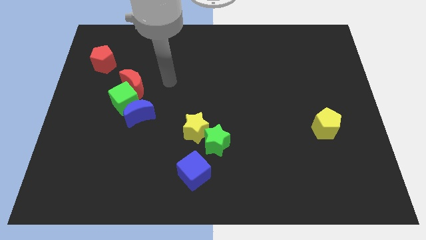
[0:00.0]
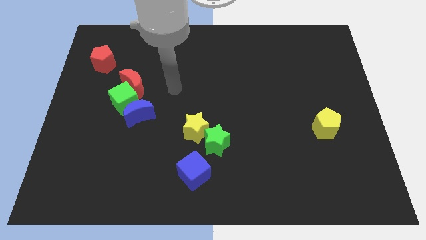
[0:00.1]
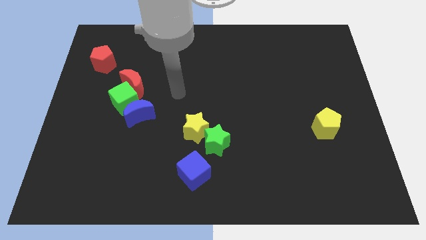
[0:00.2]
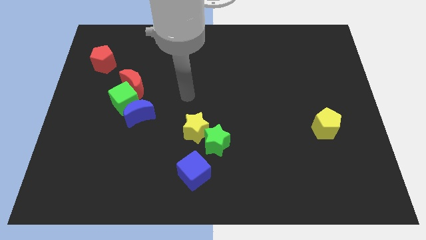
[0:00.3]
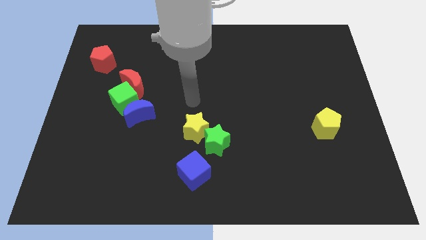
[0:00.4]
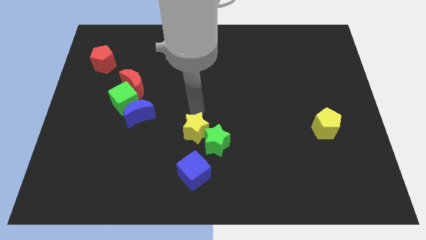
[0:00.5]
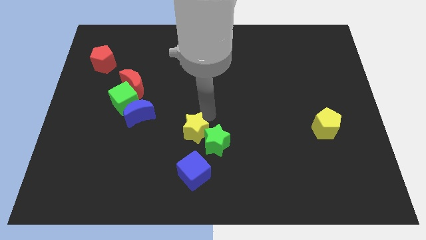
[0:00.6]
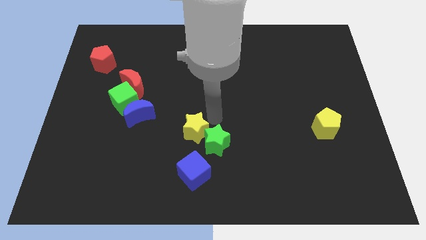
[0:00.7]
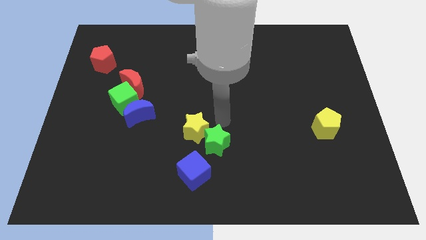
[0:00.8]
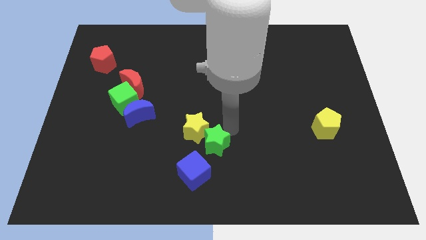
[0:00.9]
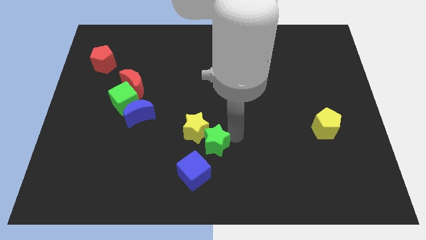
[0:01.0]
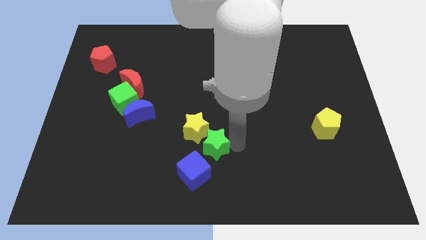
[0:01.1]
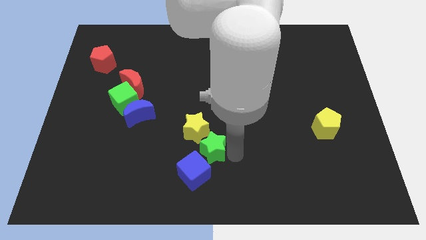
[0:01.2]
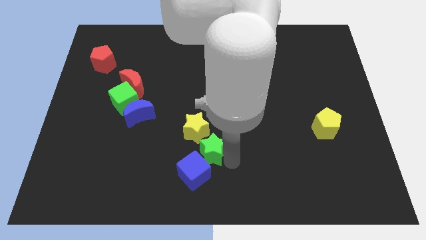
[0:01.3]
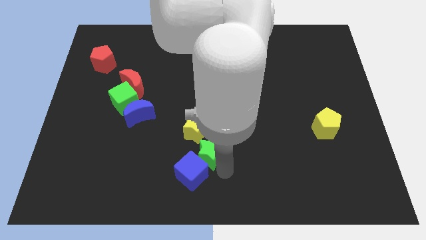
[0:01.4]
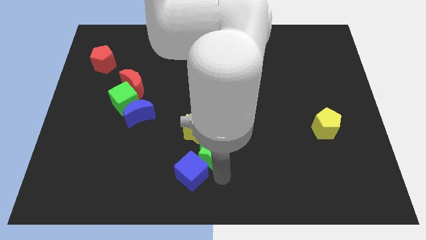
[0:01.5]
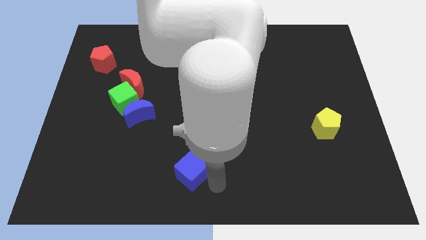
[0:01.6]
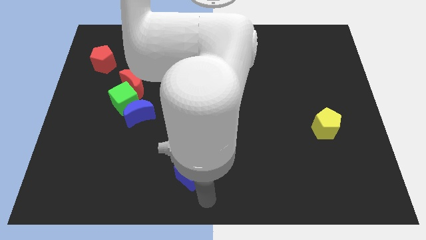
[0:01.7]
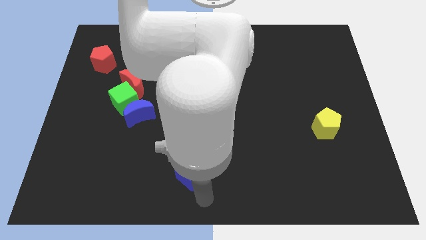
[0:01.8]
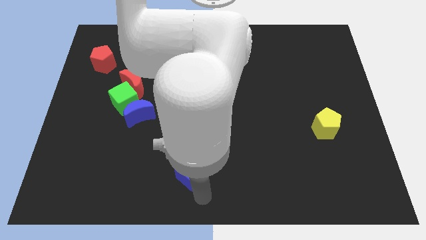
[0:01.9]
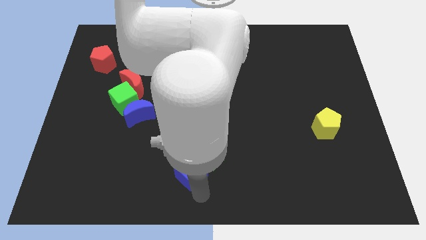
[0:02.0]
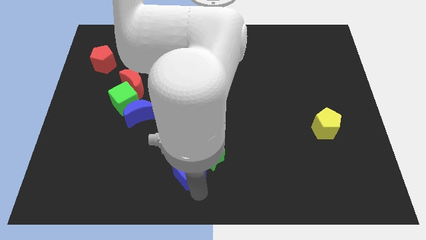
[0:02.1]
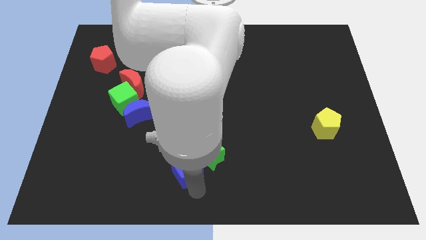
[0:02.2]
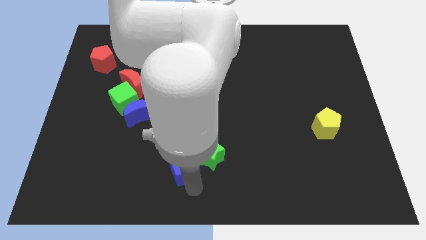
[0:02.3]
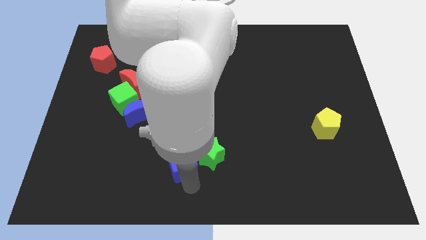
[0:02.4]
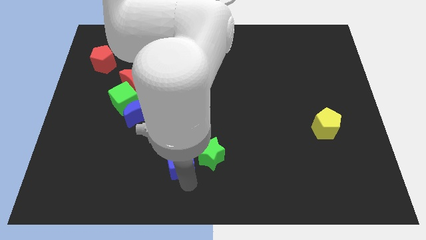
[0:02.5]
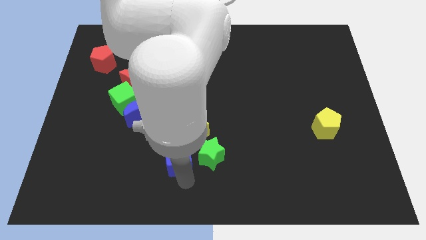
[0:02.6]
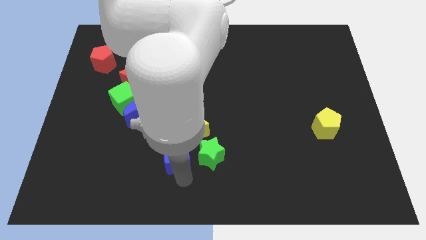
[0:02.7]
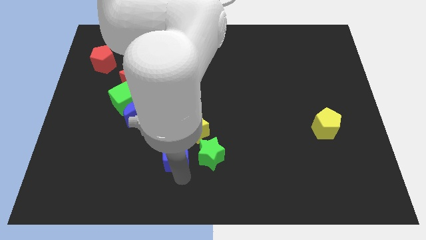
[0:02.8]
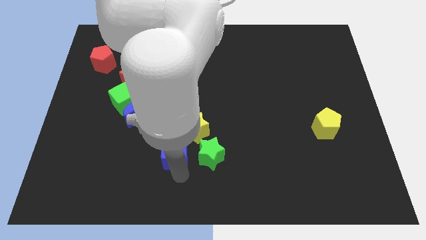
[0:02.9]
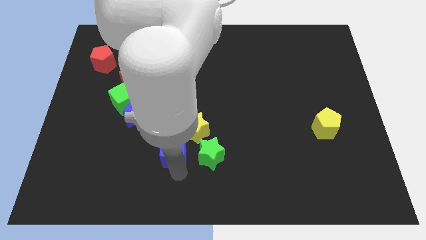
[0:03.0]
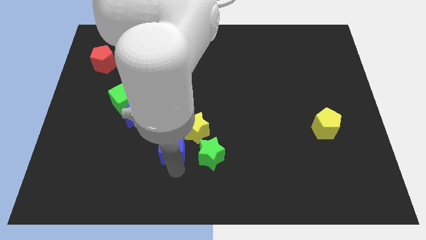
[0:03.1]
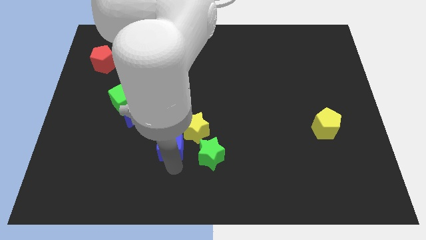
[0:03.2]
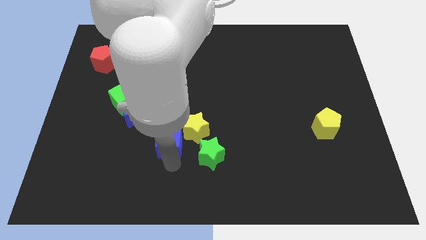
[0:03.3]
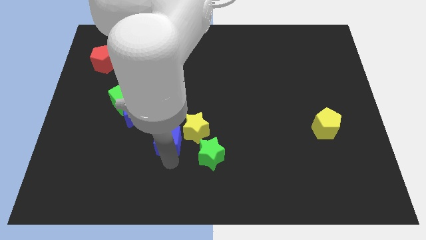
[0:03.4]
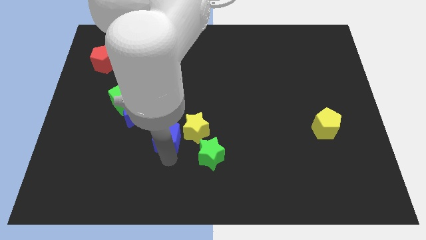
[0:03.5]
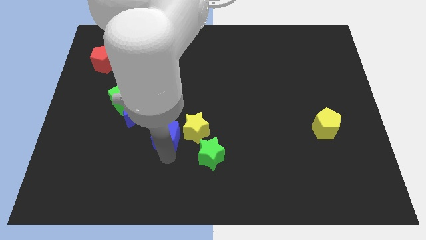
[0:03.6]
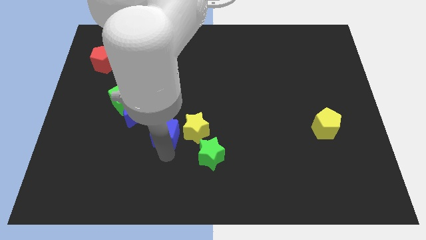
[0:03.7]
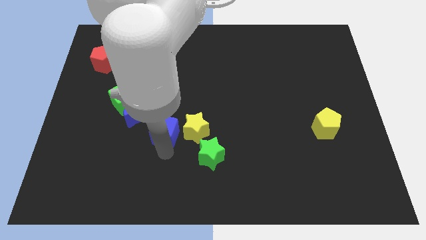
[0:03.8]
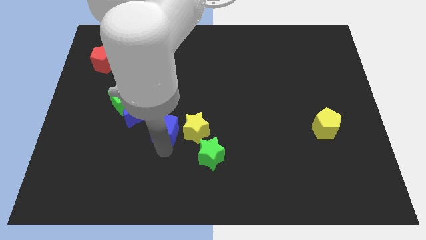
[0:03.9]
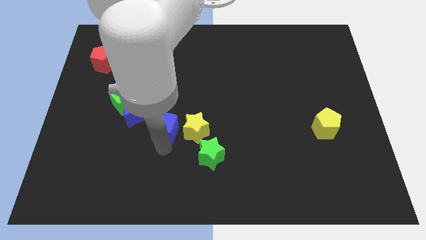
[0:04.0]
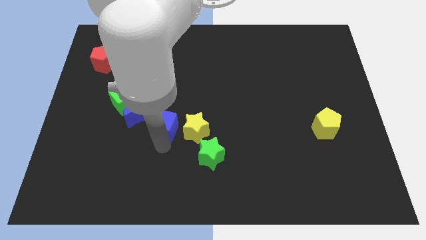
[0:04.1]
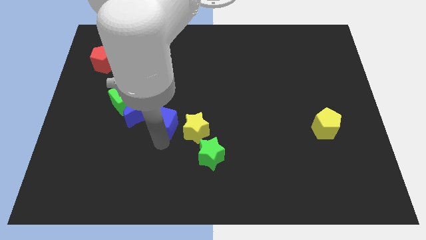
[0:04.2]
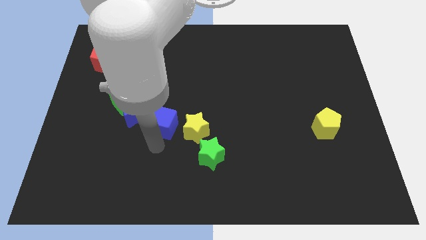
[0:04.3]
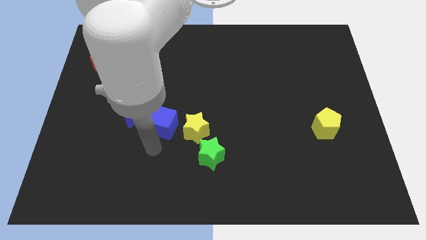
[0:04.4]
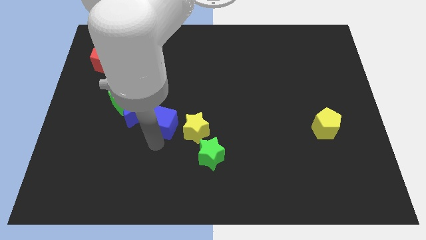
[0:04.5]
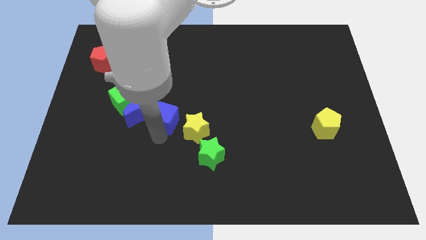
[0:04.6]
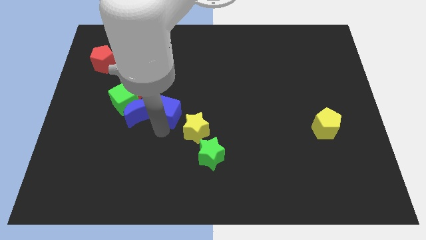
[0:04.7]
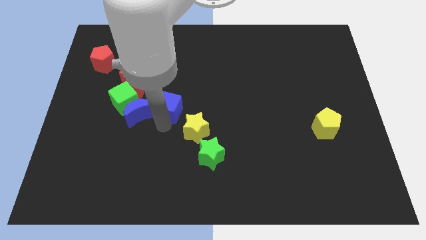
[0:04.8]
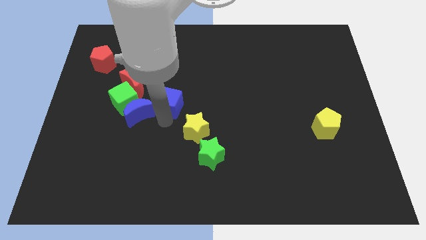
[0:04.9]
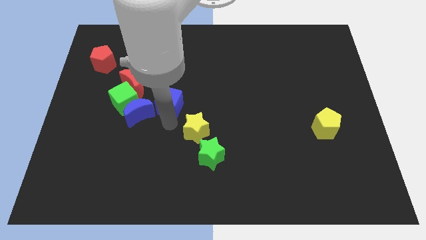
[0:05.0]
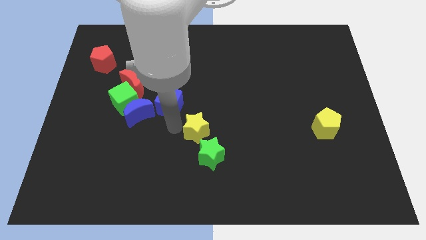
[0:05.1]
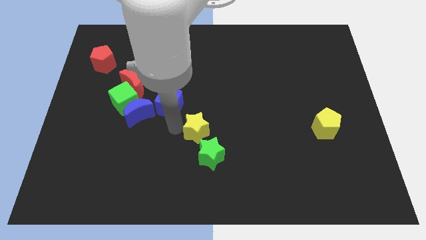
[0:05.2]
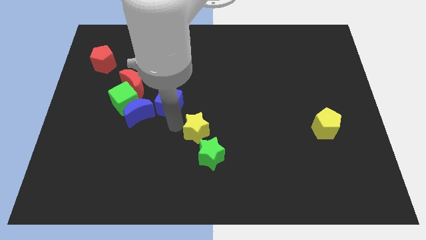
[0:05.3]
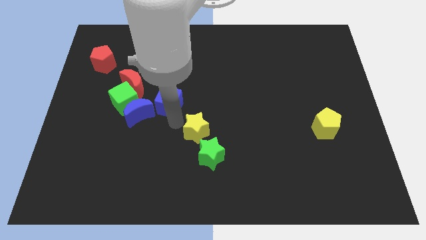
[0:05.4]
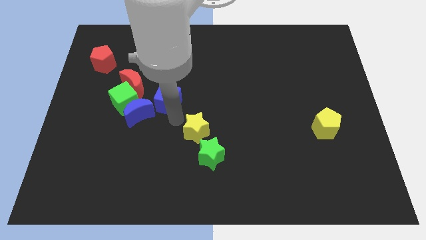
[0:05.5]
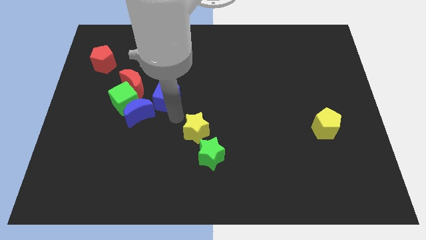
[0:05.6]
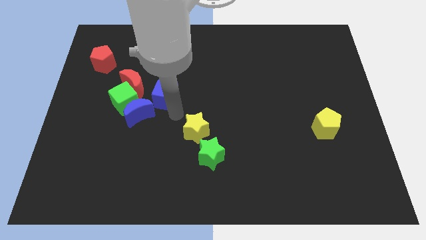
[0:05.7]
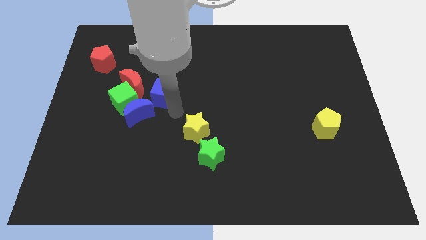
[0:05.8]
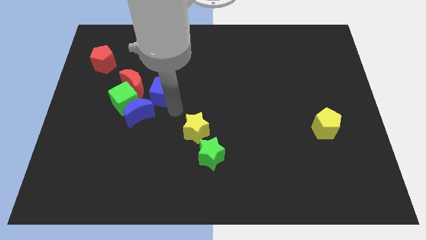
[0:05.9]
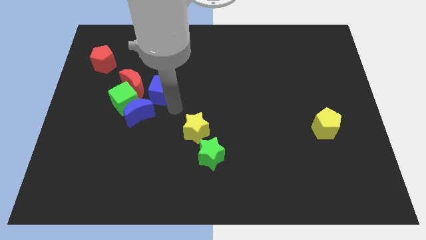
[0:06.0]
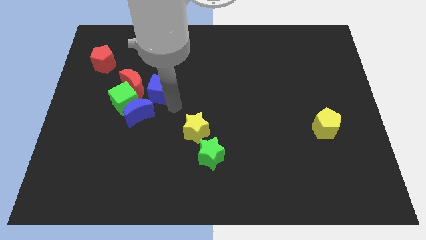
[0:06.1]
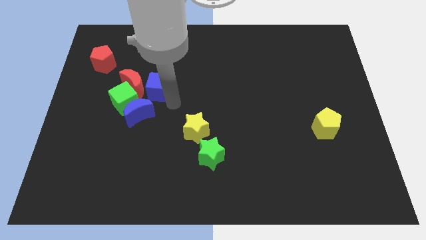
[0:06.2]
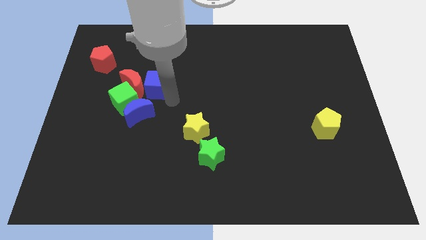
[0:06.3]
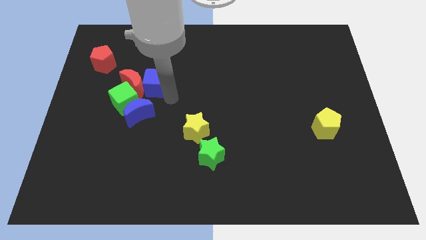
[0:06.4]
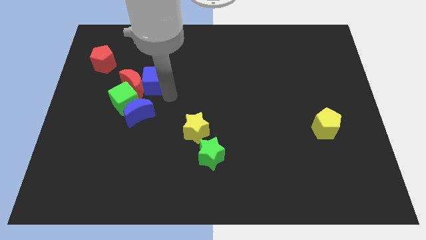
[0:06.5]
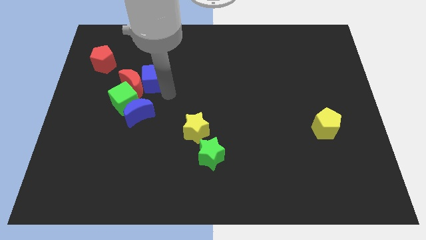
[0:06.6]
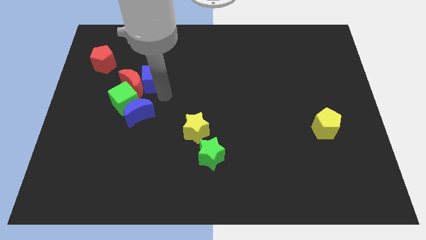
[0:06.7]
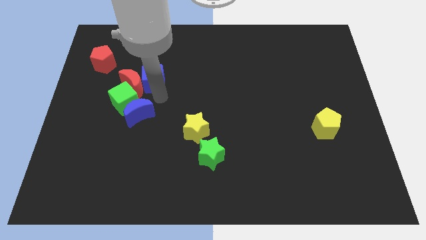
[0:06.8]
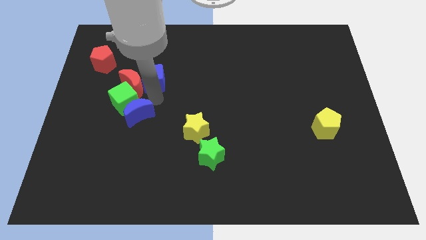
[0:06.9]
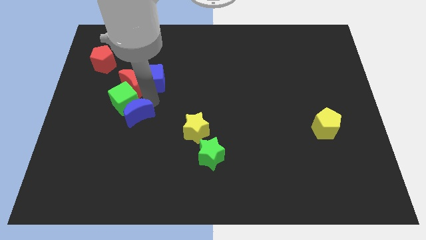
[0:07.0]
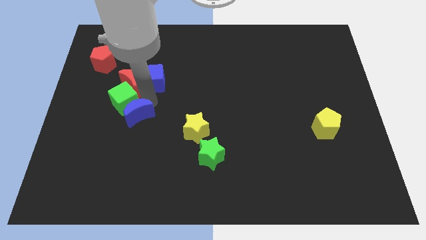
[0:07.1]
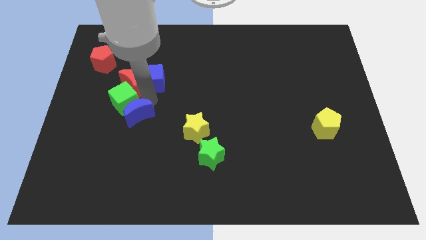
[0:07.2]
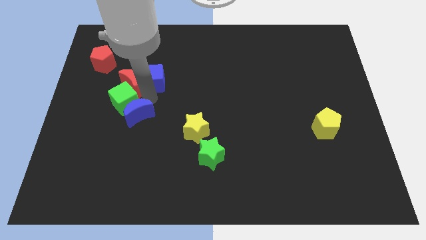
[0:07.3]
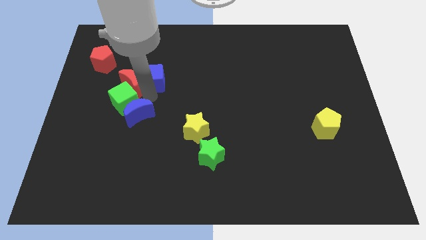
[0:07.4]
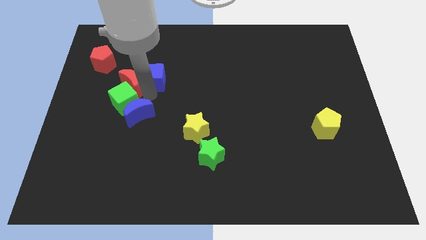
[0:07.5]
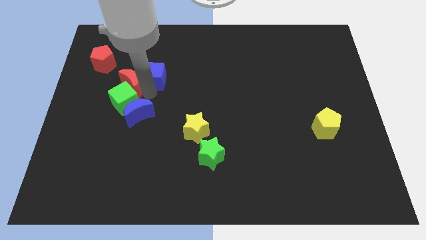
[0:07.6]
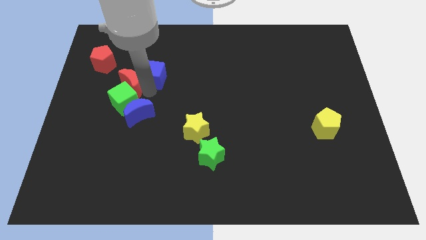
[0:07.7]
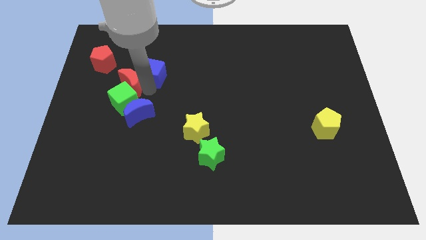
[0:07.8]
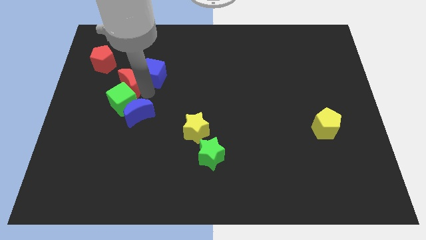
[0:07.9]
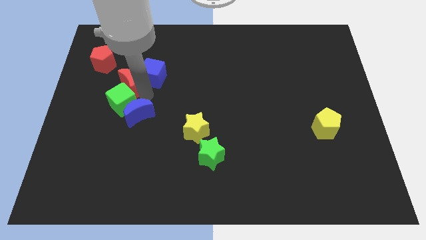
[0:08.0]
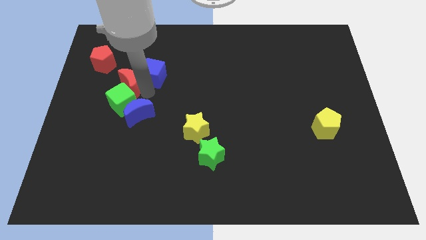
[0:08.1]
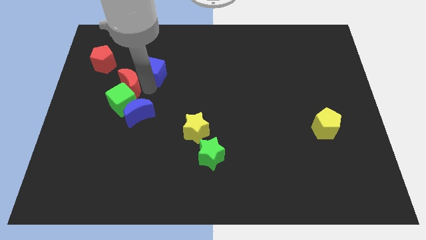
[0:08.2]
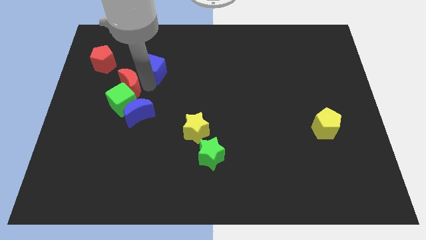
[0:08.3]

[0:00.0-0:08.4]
slide the blue cube to the top of the red moon
